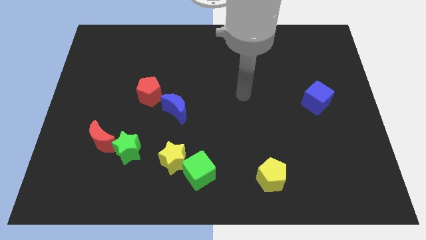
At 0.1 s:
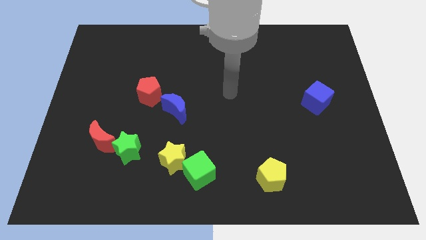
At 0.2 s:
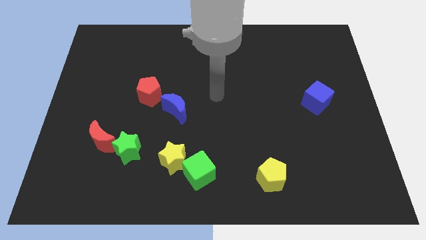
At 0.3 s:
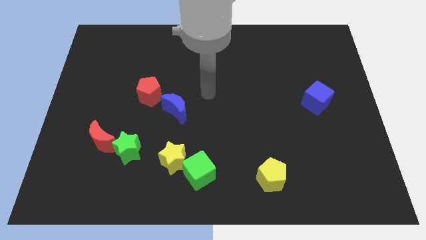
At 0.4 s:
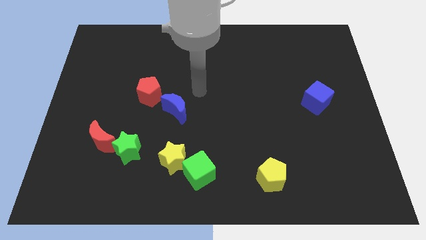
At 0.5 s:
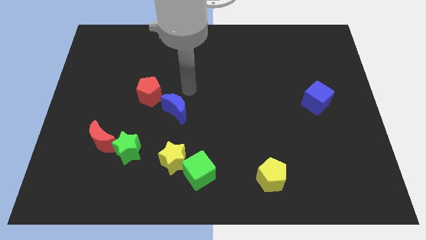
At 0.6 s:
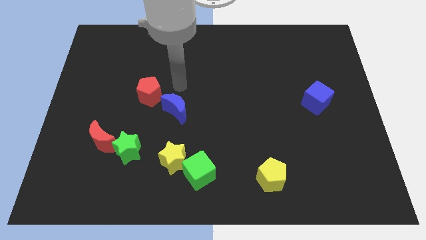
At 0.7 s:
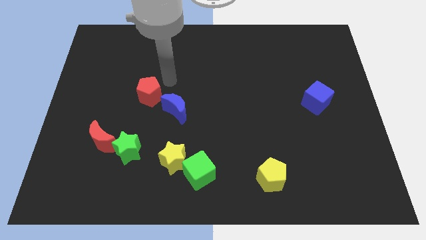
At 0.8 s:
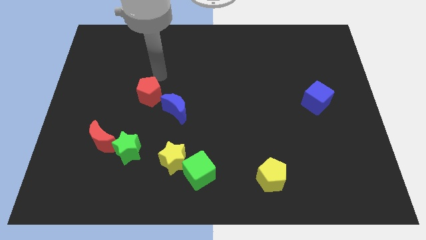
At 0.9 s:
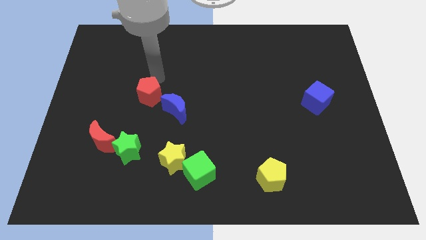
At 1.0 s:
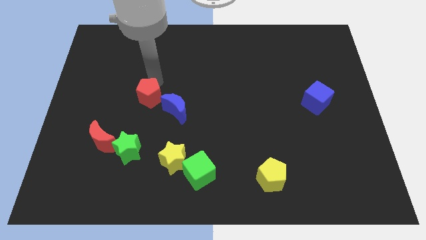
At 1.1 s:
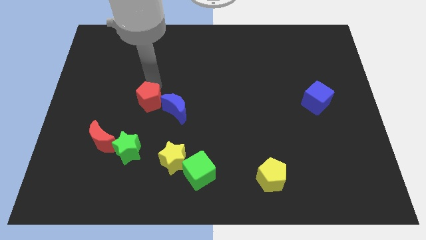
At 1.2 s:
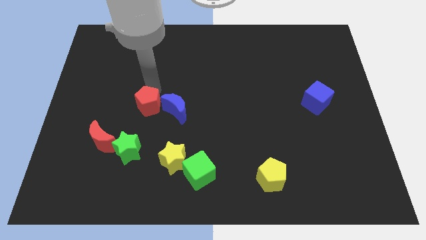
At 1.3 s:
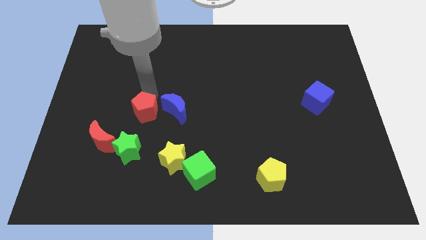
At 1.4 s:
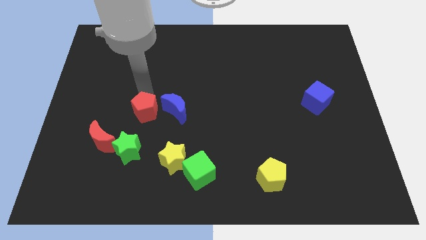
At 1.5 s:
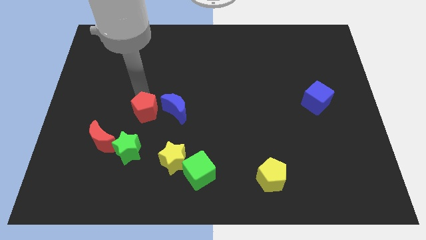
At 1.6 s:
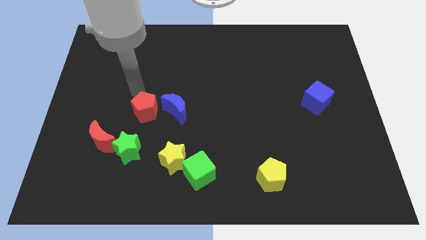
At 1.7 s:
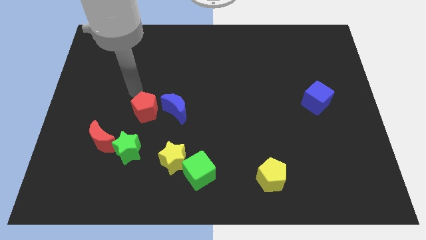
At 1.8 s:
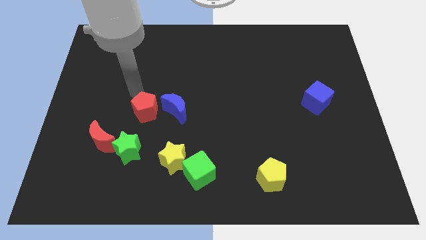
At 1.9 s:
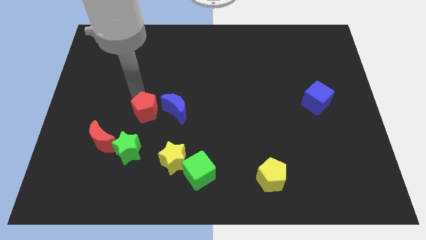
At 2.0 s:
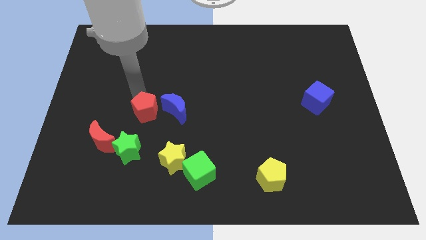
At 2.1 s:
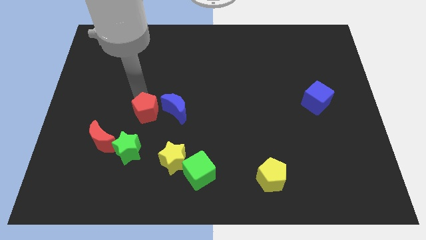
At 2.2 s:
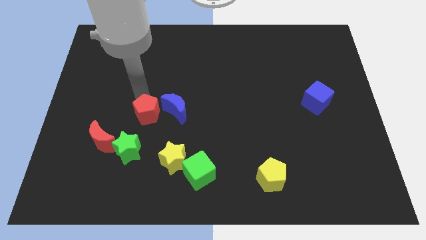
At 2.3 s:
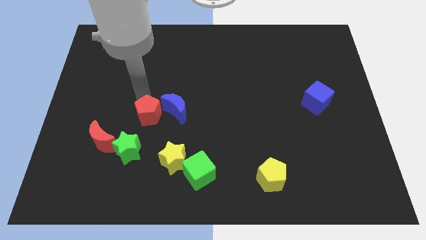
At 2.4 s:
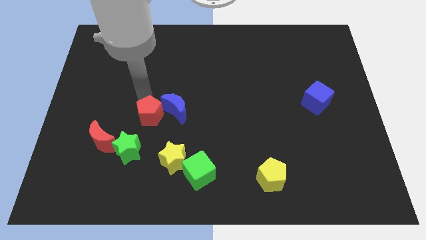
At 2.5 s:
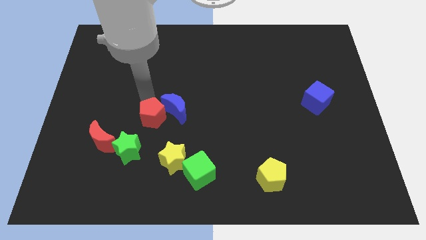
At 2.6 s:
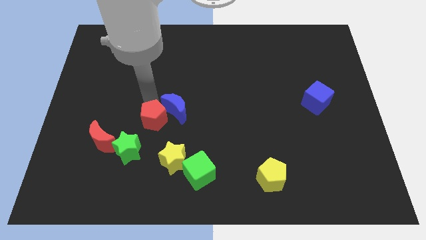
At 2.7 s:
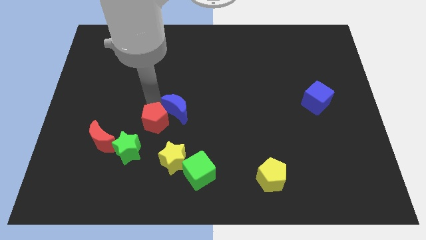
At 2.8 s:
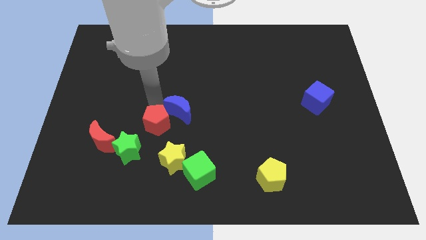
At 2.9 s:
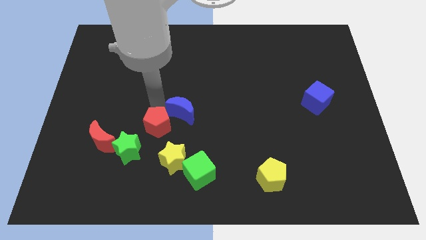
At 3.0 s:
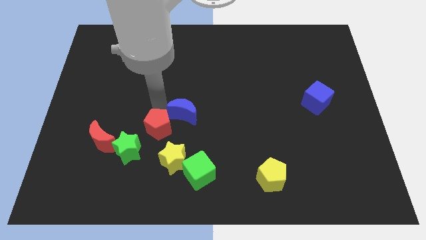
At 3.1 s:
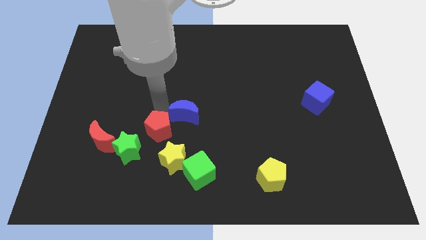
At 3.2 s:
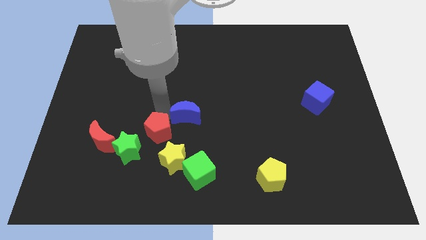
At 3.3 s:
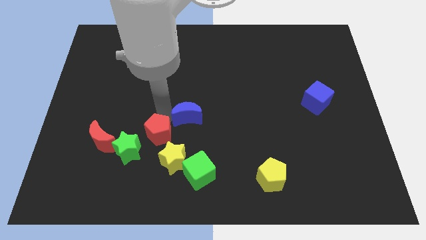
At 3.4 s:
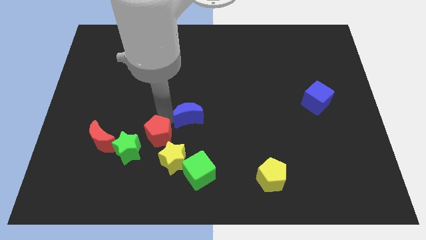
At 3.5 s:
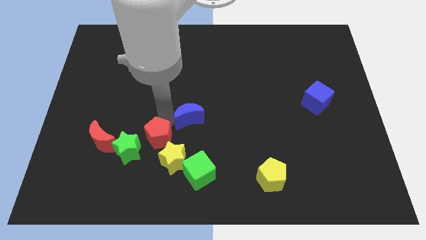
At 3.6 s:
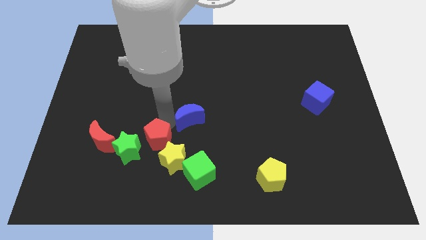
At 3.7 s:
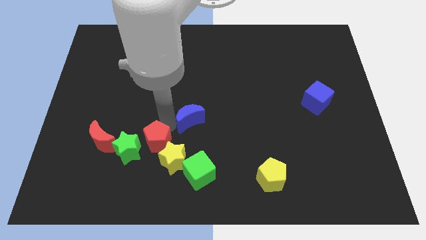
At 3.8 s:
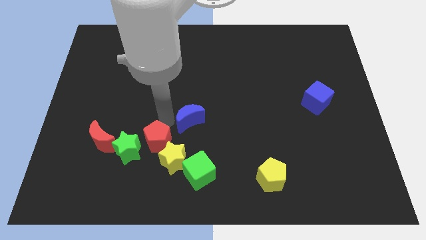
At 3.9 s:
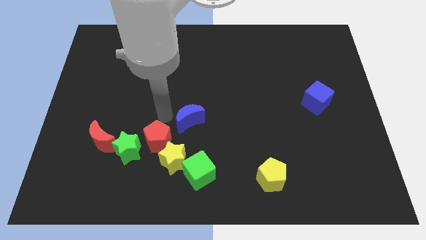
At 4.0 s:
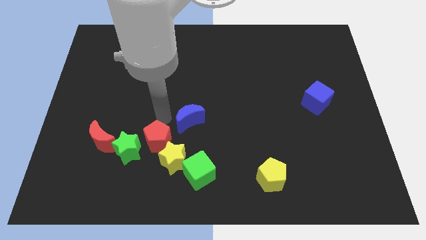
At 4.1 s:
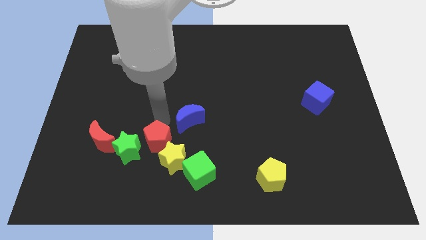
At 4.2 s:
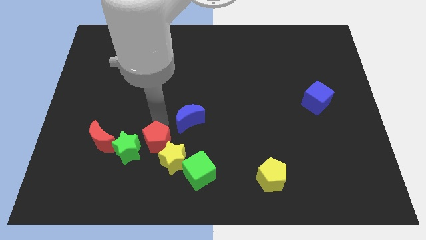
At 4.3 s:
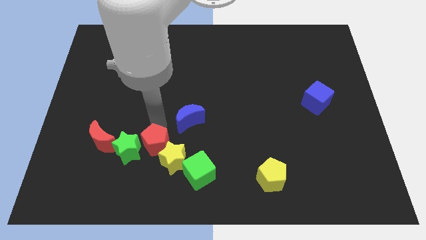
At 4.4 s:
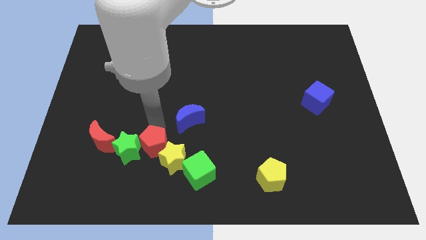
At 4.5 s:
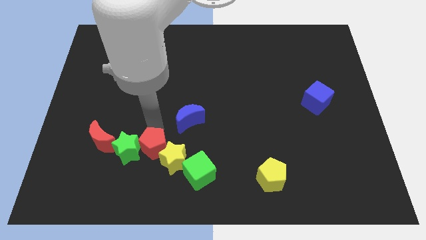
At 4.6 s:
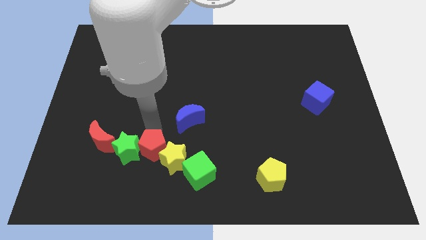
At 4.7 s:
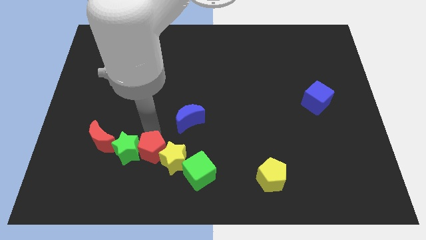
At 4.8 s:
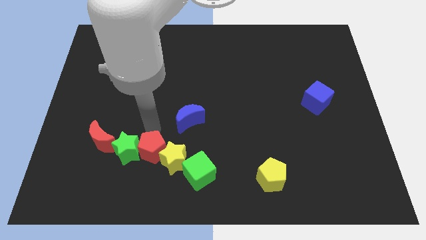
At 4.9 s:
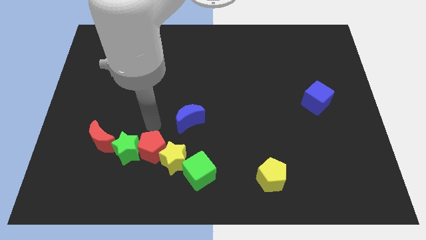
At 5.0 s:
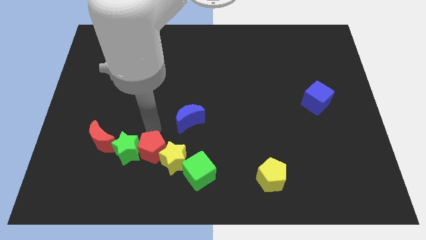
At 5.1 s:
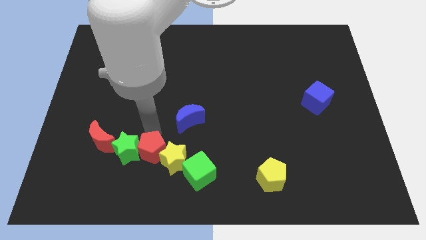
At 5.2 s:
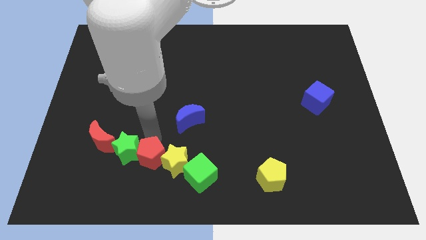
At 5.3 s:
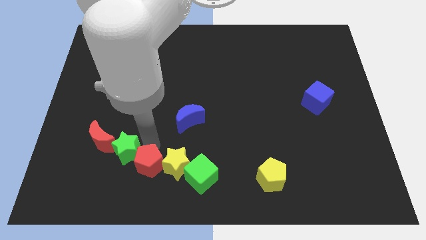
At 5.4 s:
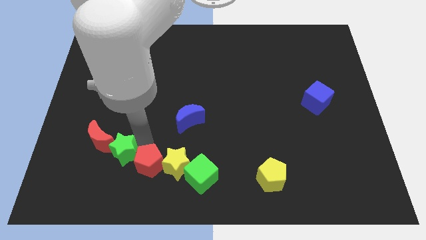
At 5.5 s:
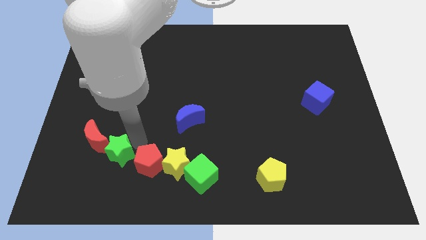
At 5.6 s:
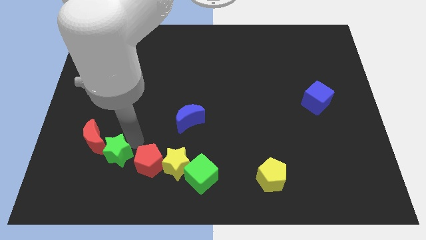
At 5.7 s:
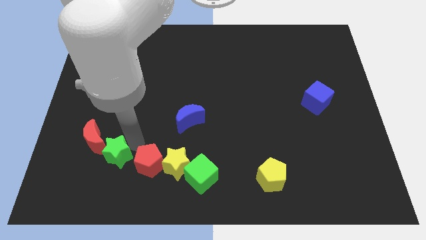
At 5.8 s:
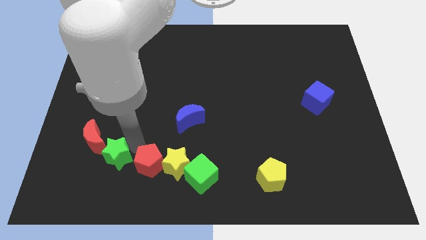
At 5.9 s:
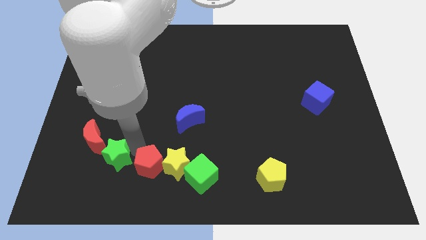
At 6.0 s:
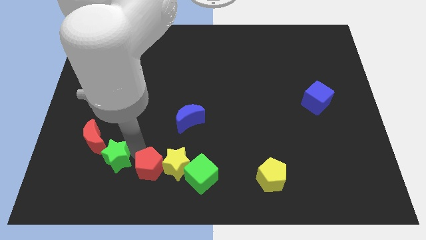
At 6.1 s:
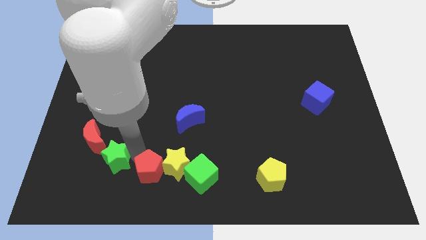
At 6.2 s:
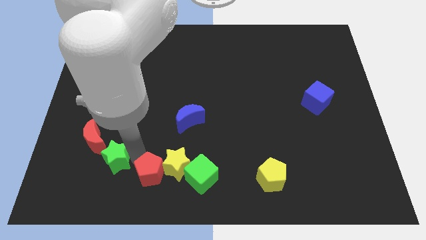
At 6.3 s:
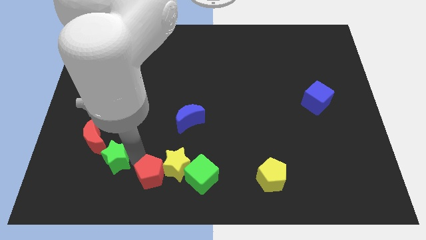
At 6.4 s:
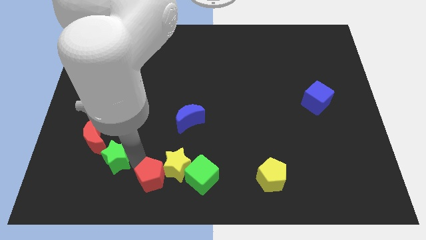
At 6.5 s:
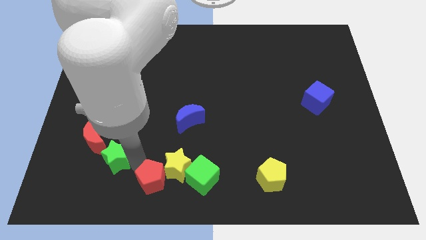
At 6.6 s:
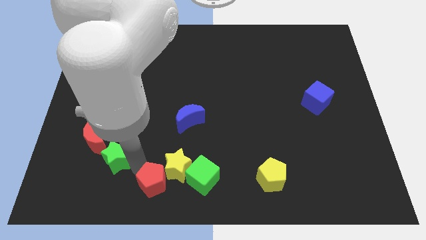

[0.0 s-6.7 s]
push the red pentagon to the bottom side
